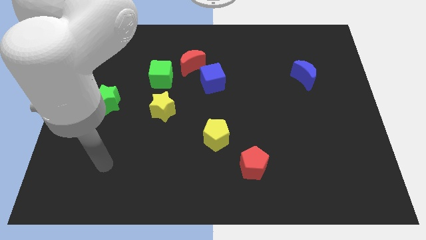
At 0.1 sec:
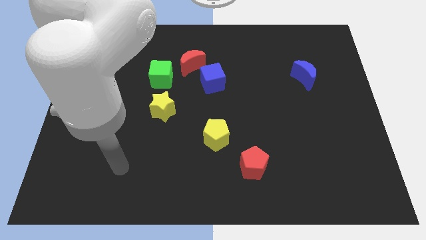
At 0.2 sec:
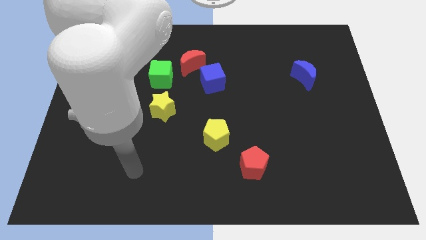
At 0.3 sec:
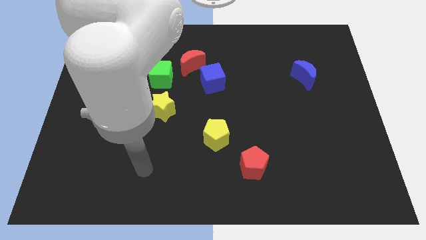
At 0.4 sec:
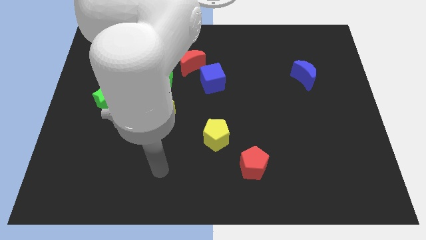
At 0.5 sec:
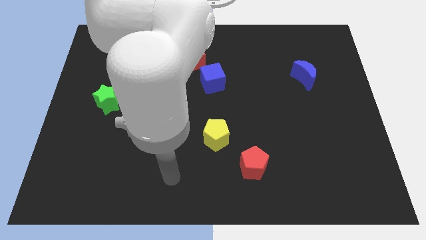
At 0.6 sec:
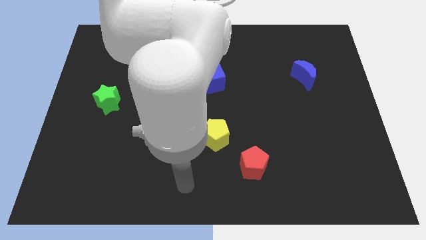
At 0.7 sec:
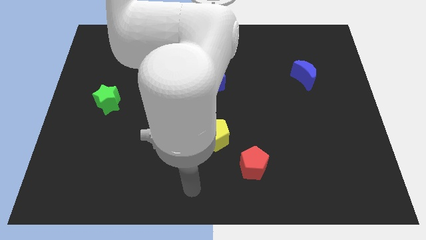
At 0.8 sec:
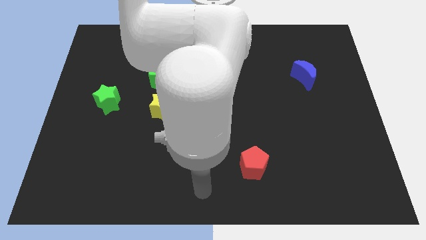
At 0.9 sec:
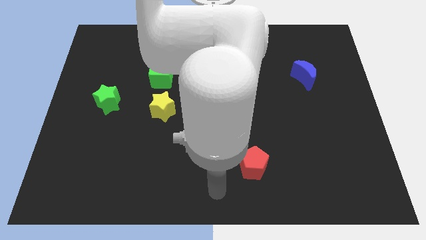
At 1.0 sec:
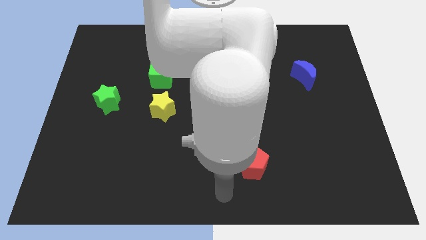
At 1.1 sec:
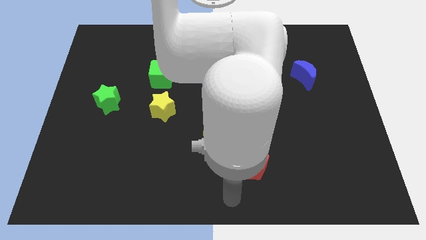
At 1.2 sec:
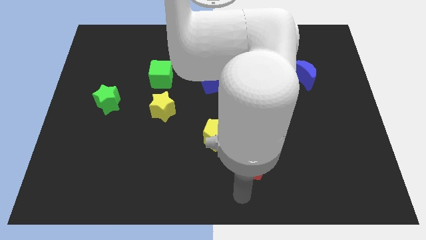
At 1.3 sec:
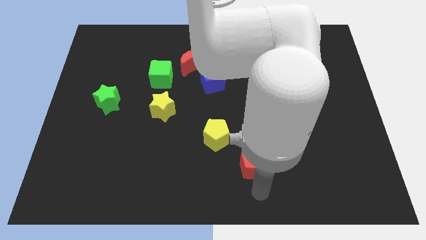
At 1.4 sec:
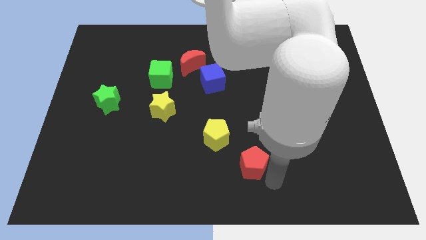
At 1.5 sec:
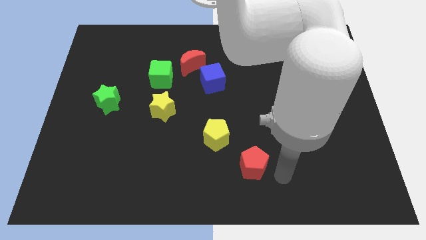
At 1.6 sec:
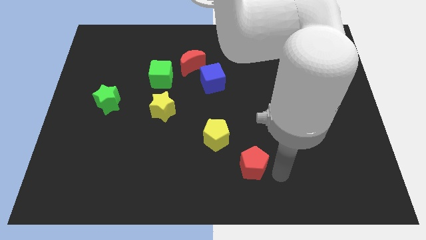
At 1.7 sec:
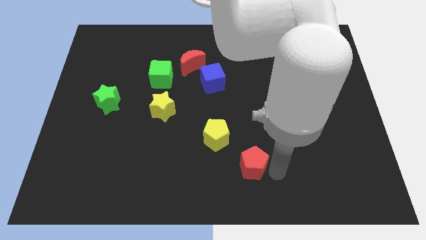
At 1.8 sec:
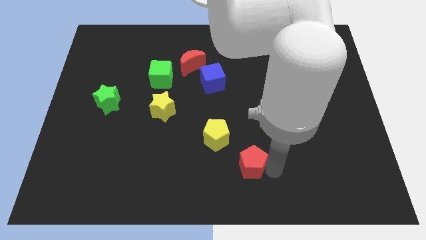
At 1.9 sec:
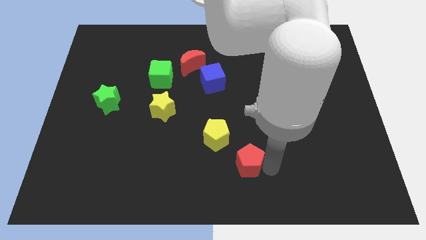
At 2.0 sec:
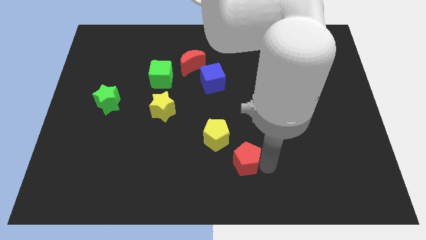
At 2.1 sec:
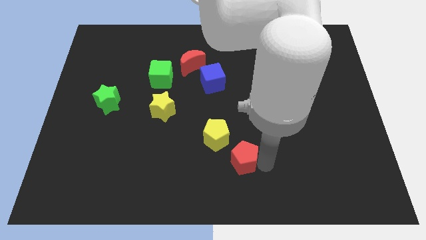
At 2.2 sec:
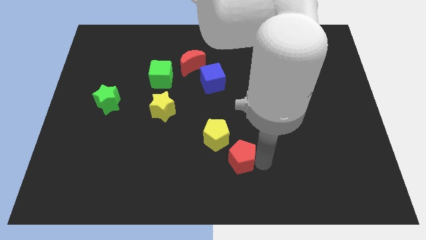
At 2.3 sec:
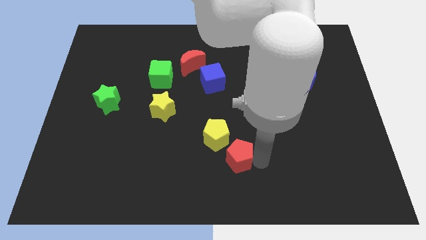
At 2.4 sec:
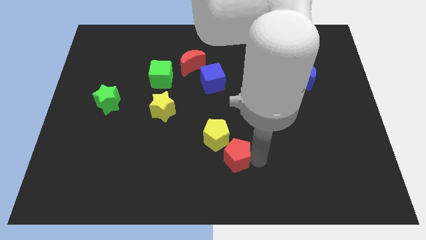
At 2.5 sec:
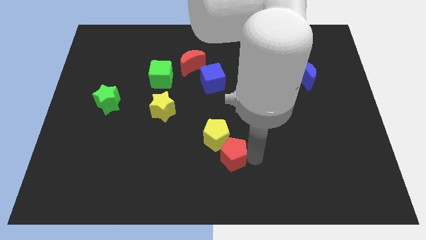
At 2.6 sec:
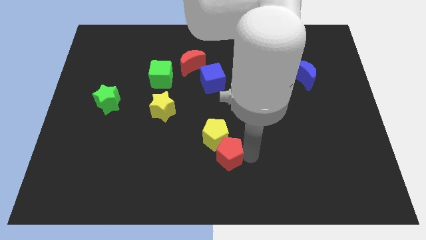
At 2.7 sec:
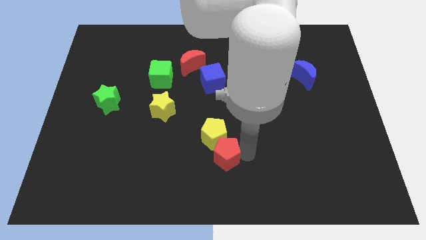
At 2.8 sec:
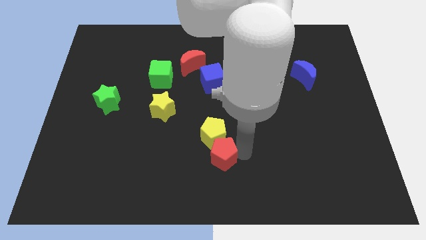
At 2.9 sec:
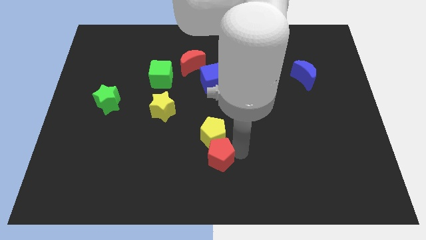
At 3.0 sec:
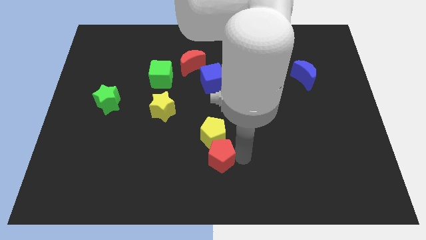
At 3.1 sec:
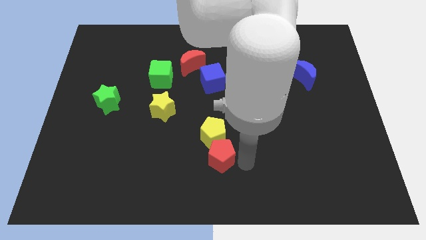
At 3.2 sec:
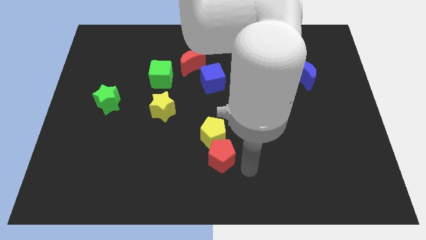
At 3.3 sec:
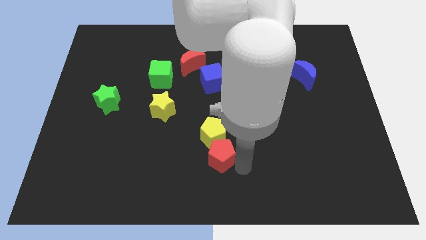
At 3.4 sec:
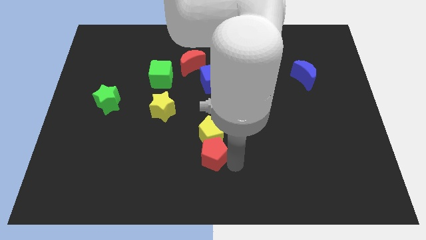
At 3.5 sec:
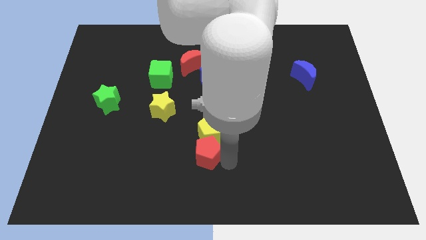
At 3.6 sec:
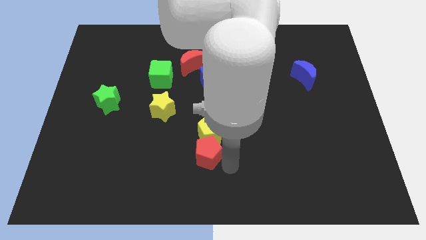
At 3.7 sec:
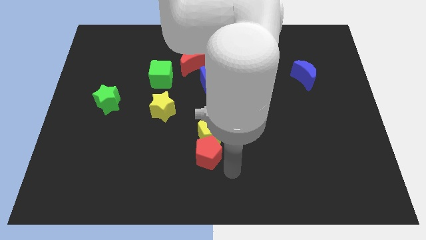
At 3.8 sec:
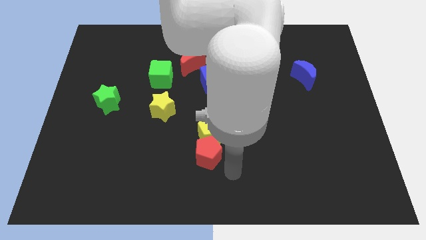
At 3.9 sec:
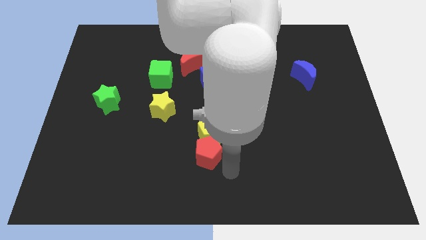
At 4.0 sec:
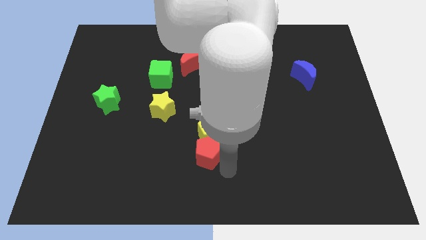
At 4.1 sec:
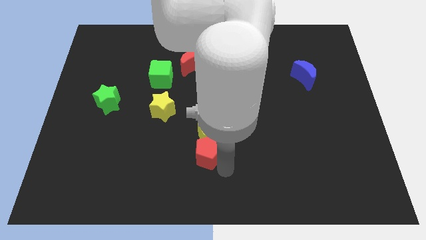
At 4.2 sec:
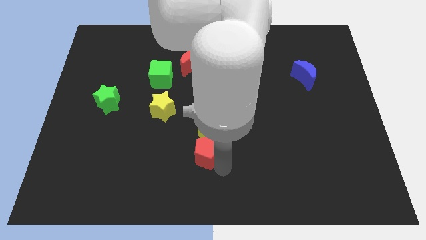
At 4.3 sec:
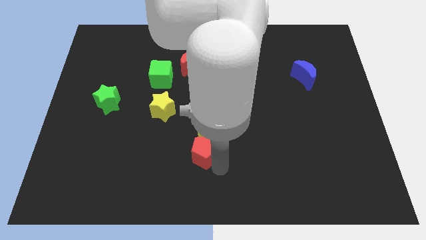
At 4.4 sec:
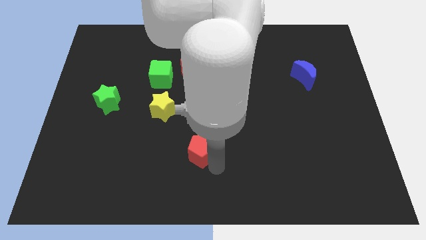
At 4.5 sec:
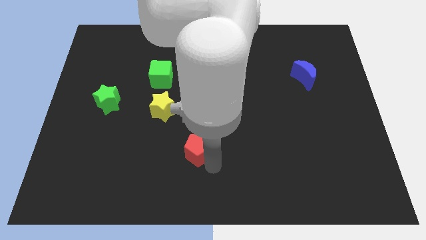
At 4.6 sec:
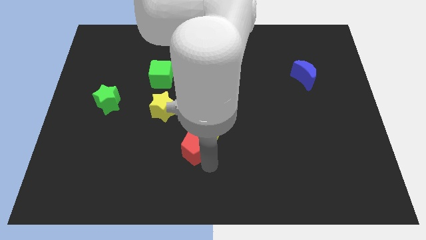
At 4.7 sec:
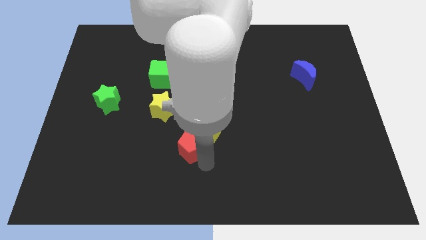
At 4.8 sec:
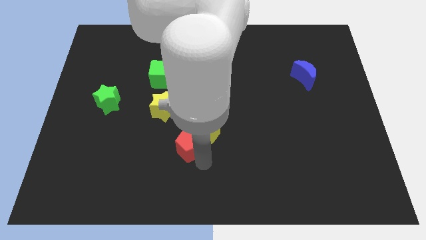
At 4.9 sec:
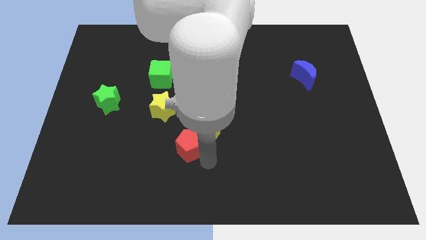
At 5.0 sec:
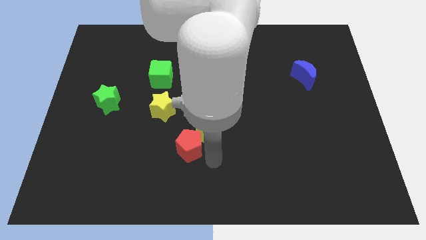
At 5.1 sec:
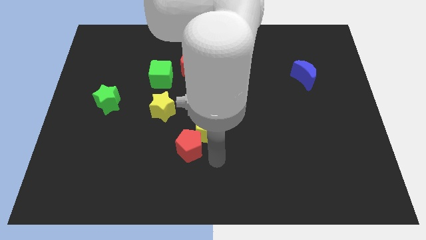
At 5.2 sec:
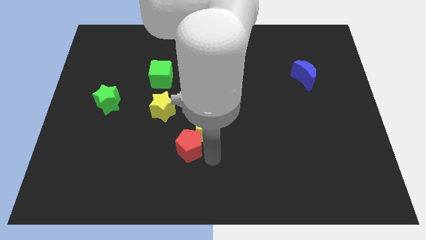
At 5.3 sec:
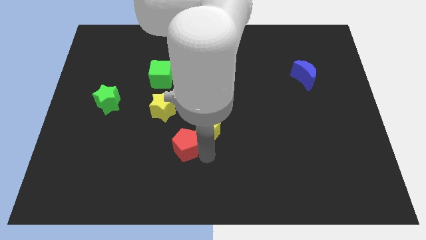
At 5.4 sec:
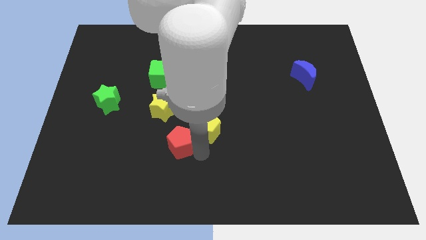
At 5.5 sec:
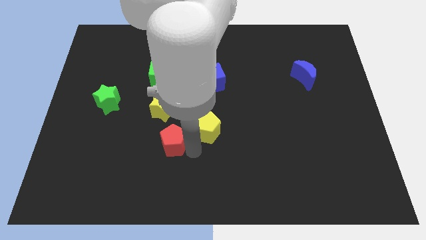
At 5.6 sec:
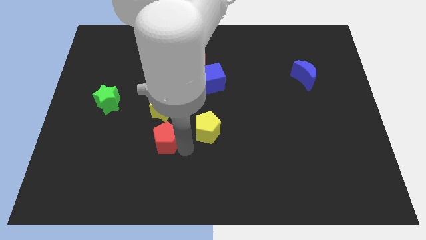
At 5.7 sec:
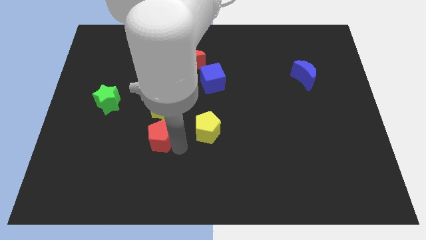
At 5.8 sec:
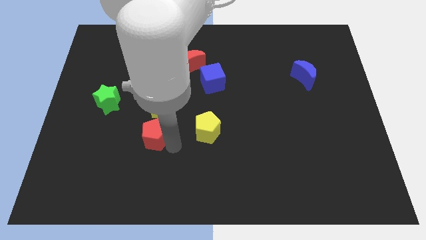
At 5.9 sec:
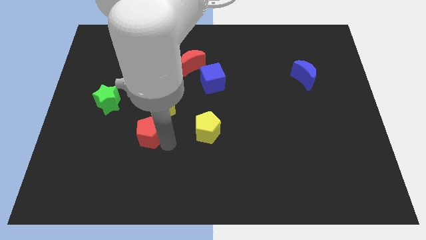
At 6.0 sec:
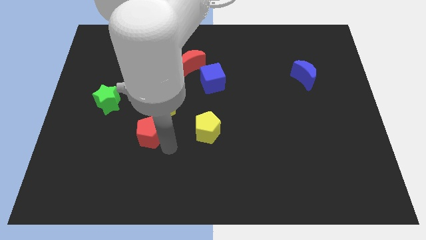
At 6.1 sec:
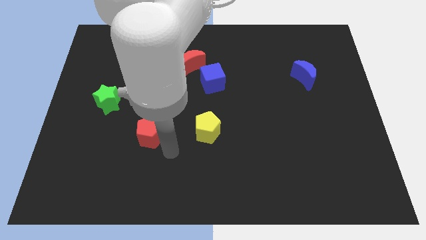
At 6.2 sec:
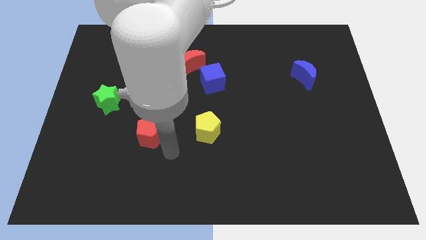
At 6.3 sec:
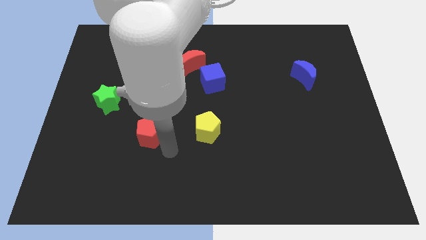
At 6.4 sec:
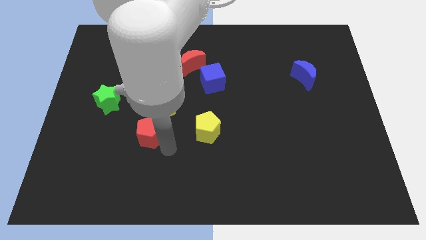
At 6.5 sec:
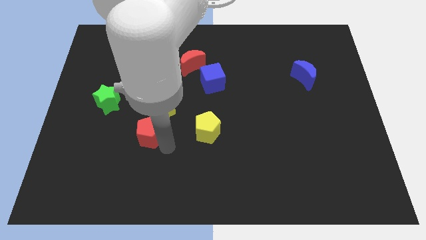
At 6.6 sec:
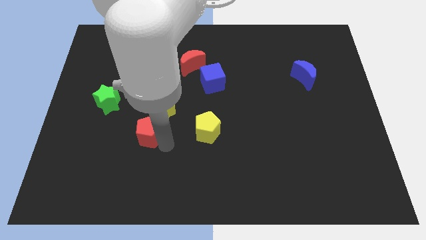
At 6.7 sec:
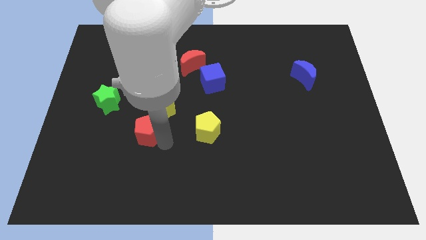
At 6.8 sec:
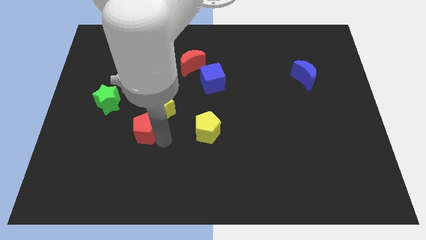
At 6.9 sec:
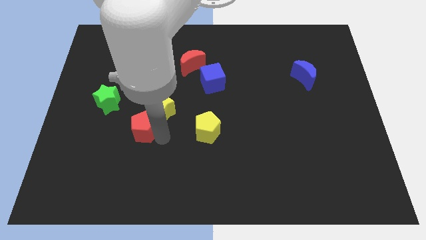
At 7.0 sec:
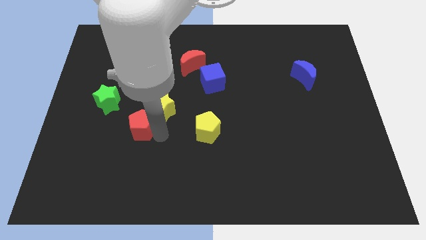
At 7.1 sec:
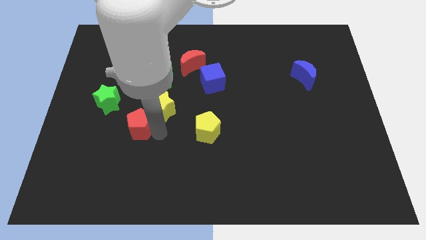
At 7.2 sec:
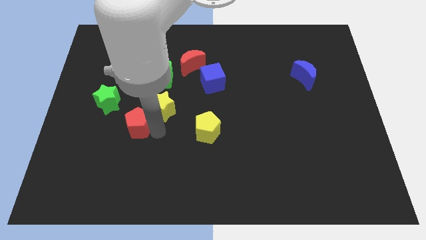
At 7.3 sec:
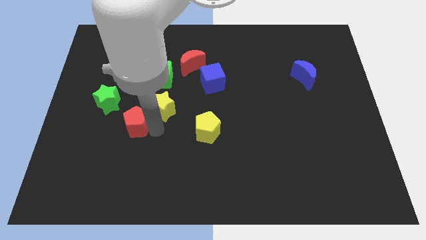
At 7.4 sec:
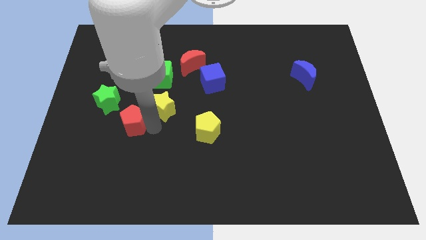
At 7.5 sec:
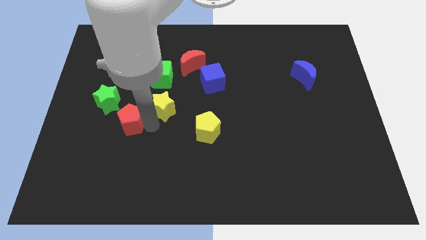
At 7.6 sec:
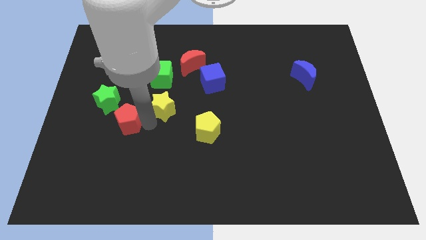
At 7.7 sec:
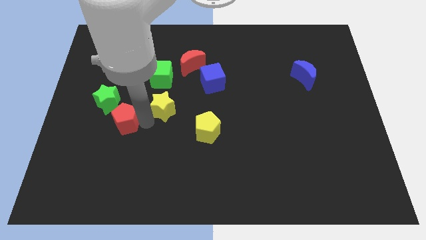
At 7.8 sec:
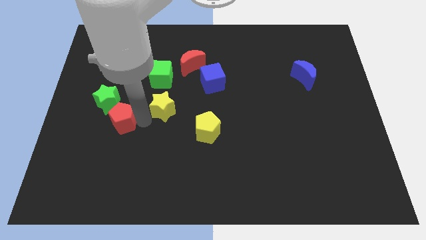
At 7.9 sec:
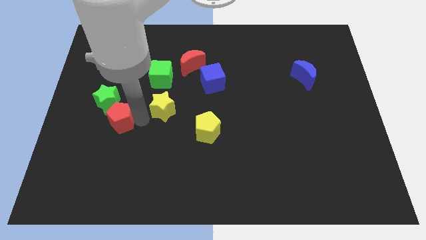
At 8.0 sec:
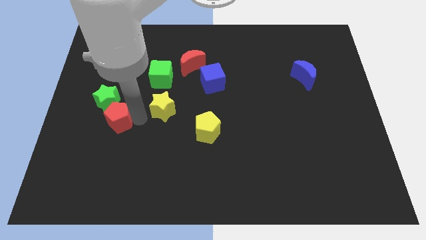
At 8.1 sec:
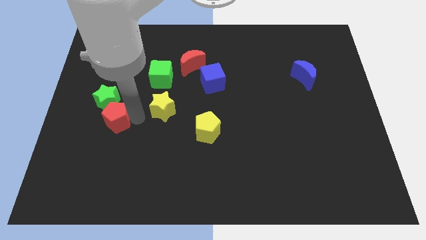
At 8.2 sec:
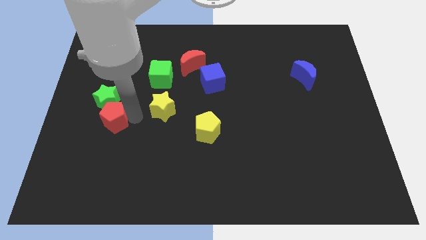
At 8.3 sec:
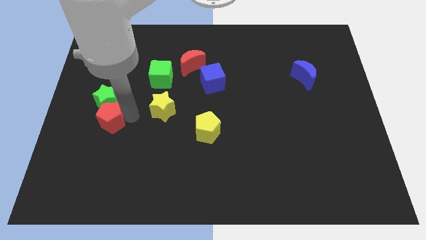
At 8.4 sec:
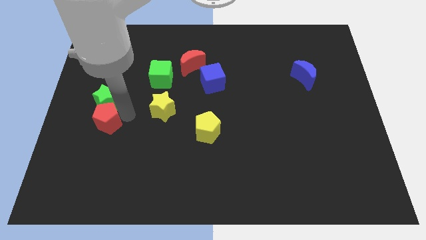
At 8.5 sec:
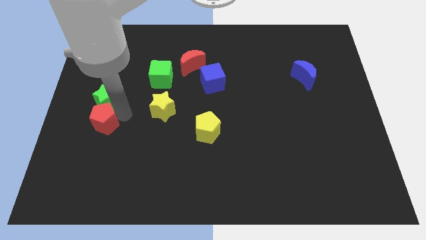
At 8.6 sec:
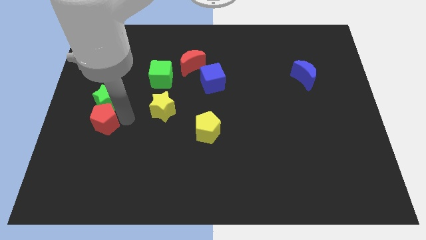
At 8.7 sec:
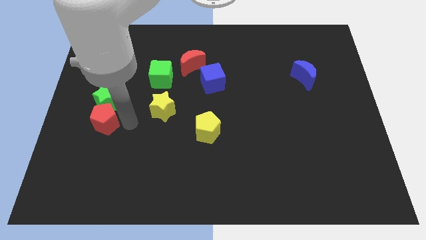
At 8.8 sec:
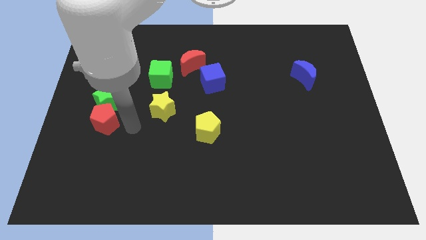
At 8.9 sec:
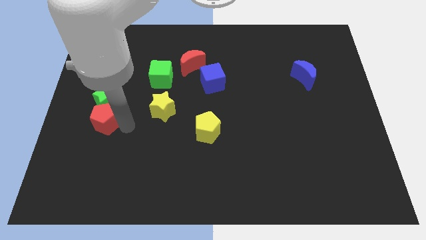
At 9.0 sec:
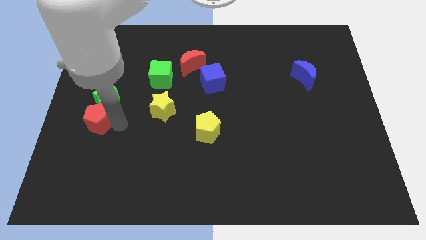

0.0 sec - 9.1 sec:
put the red pentagon to the left side
